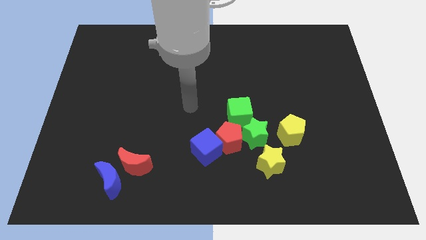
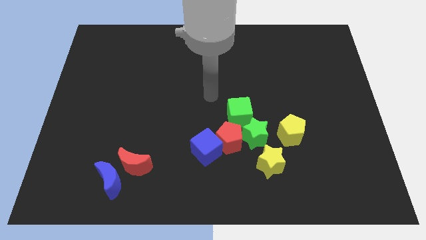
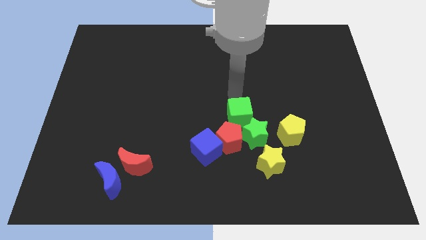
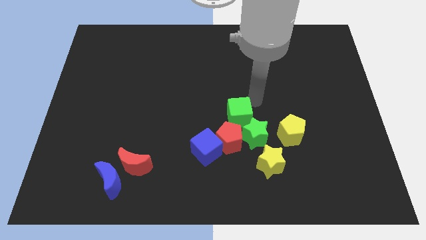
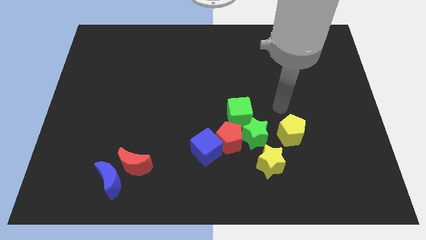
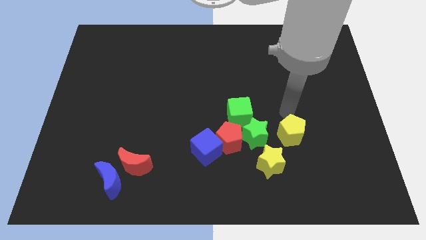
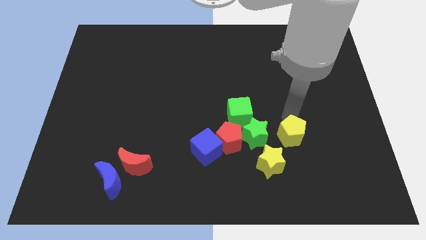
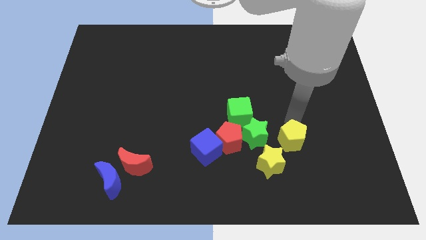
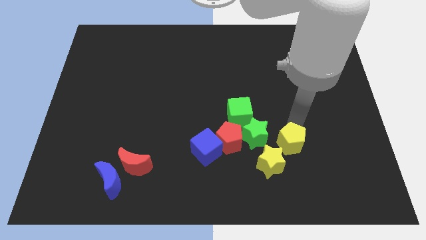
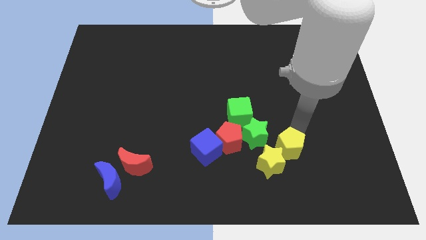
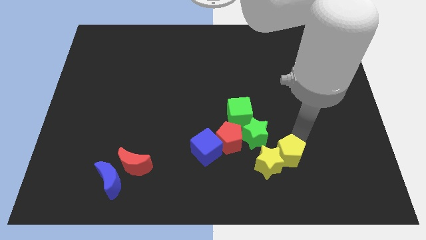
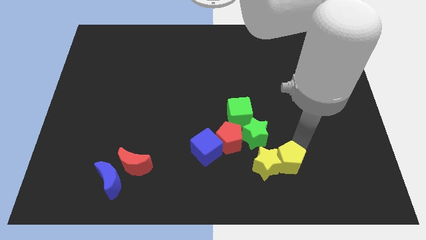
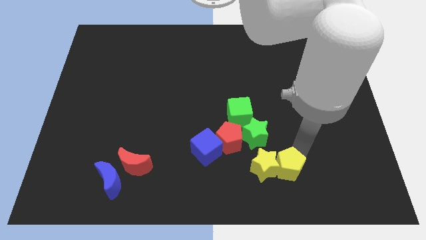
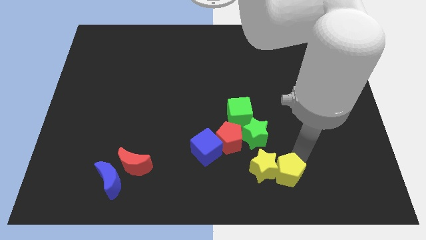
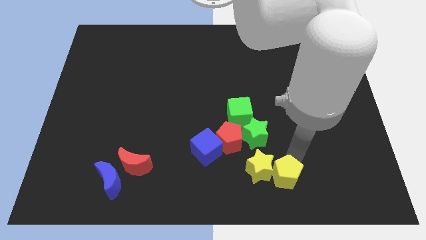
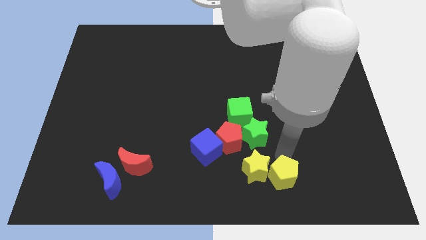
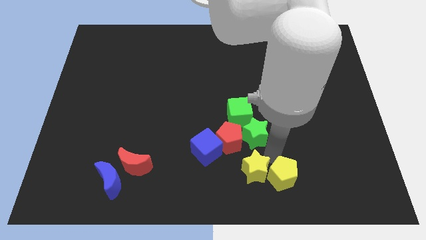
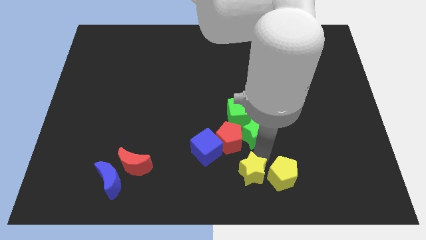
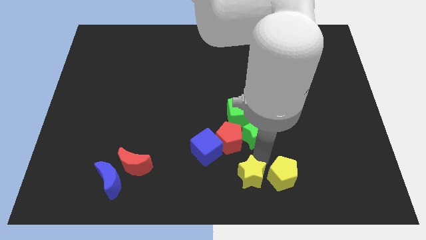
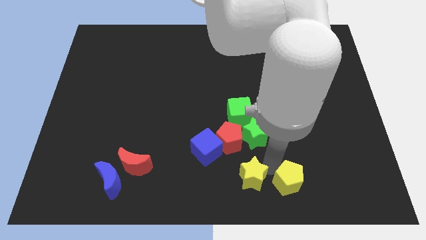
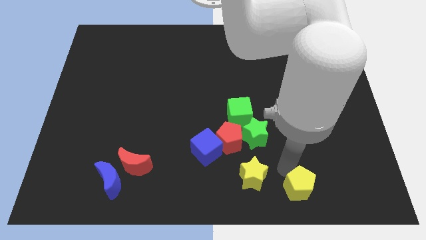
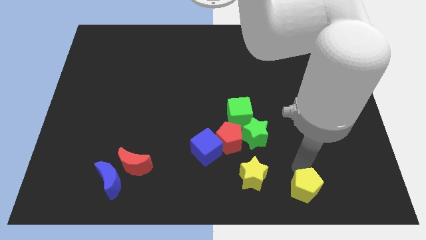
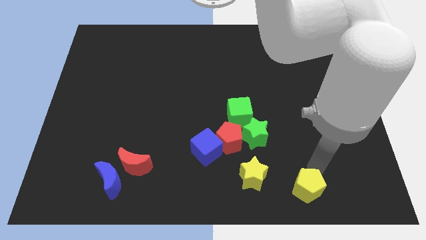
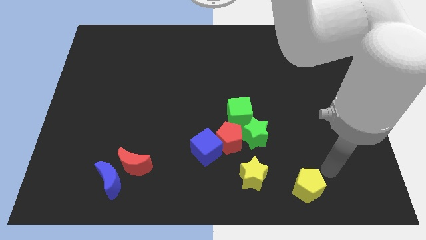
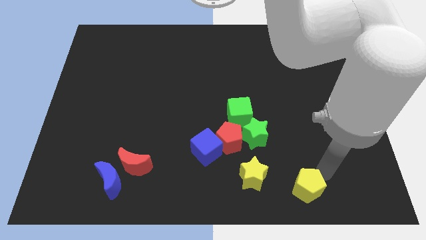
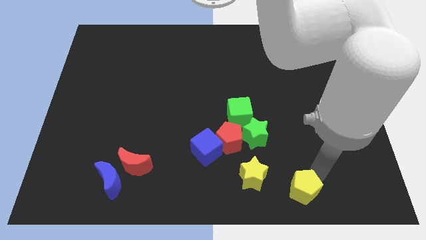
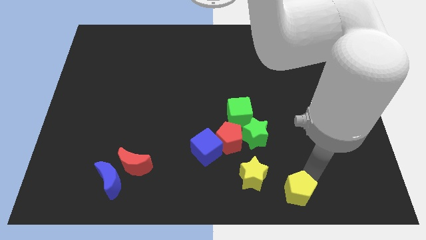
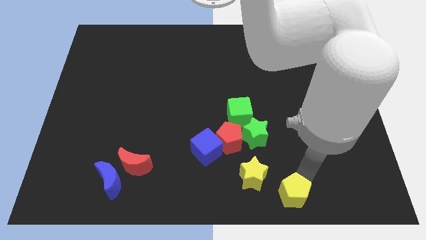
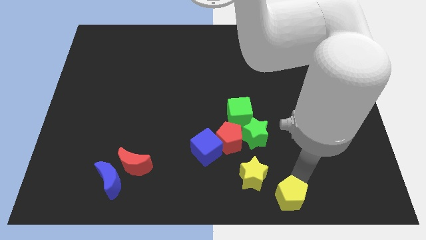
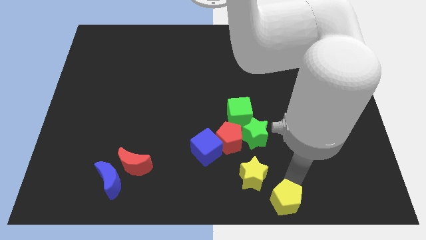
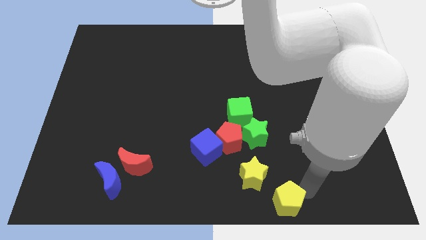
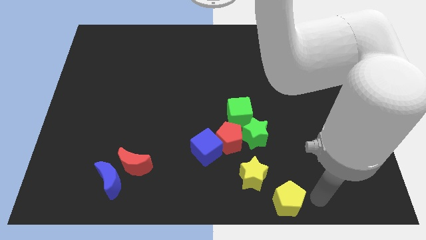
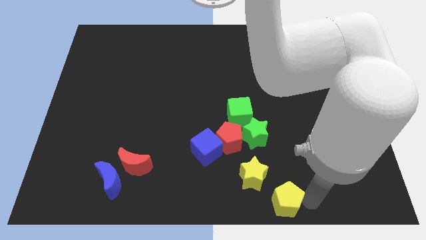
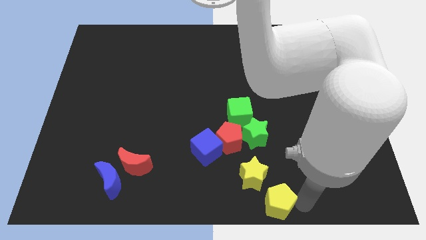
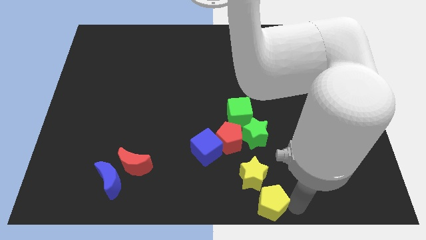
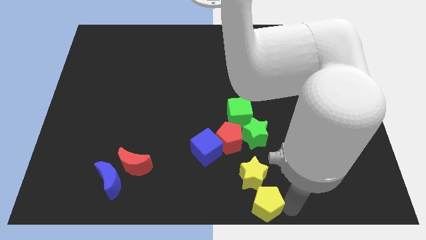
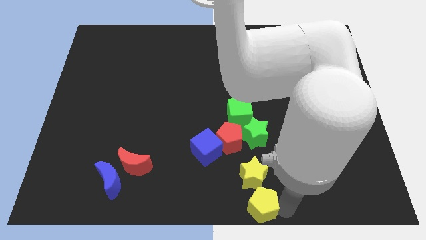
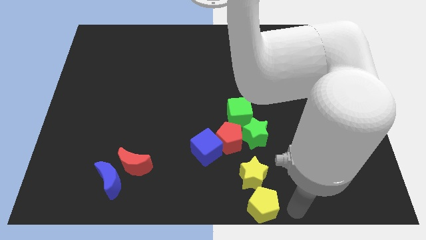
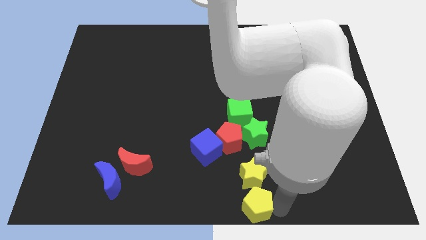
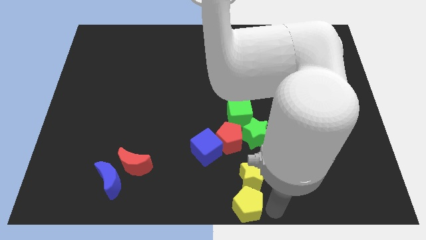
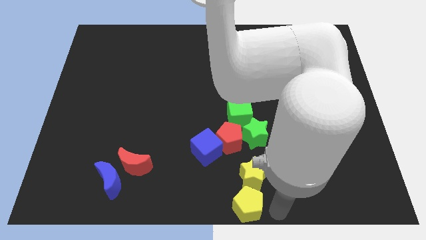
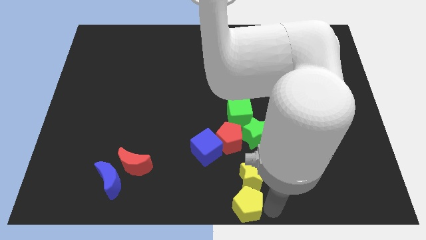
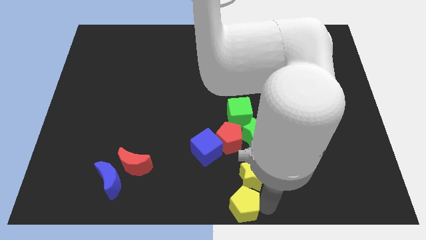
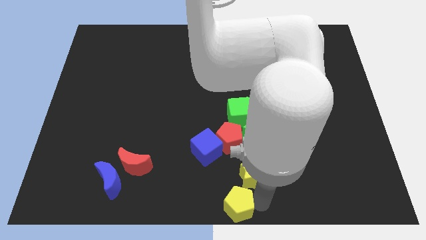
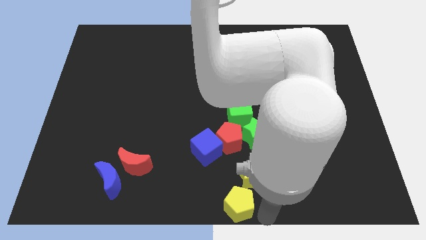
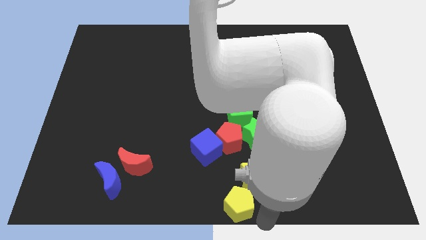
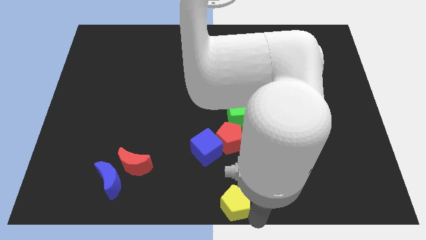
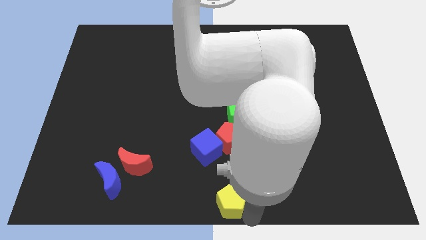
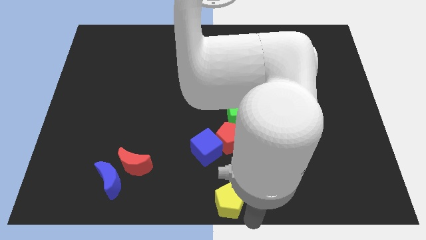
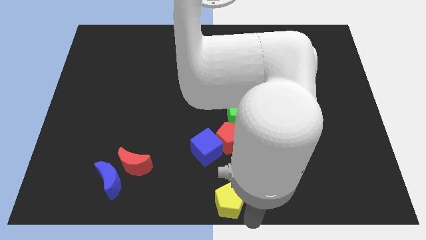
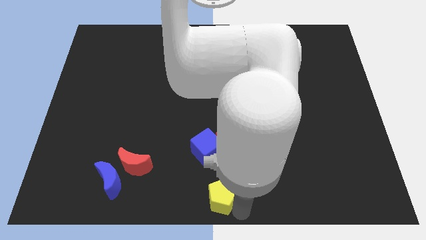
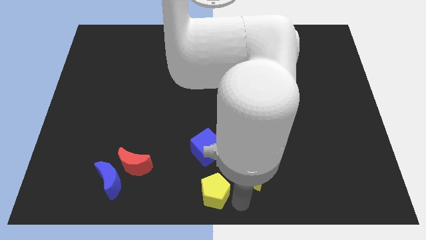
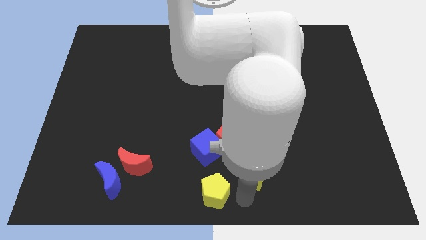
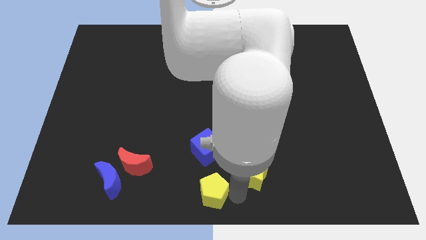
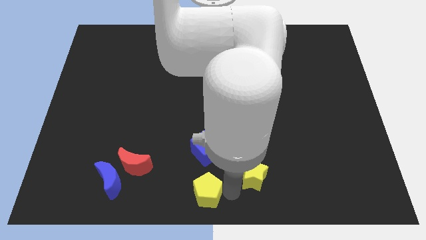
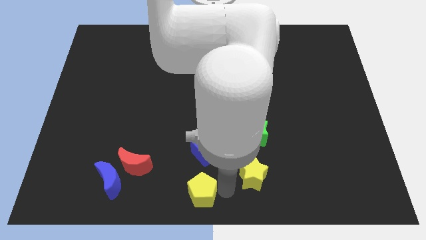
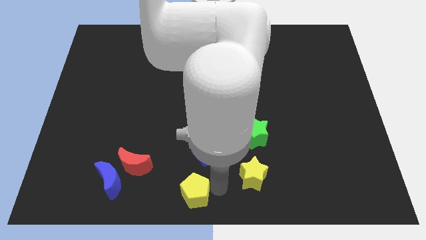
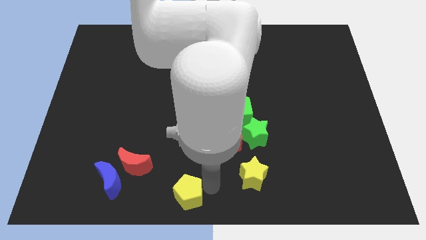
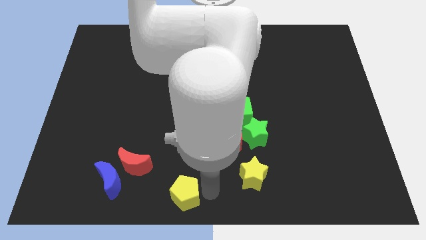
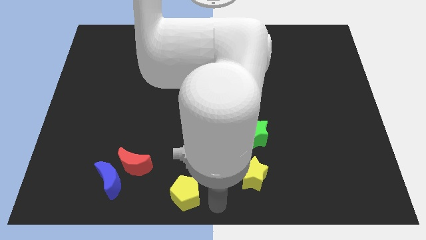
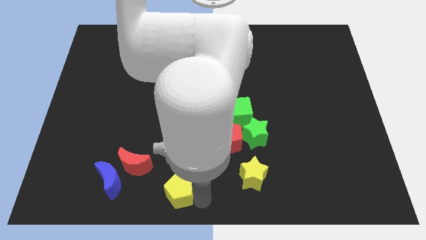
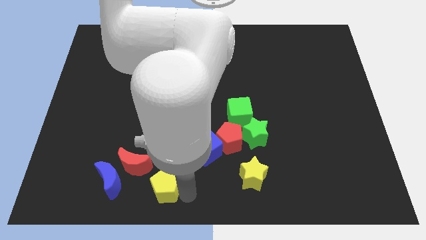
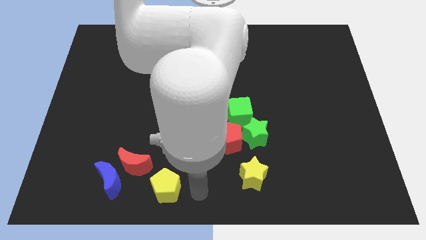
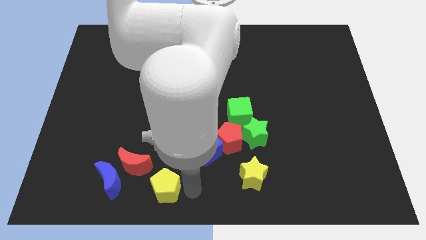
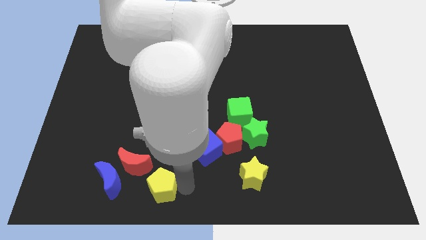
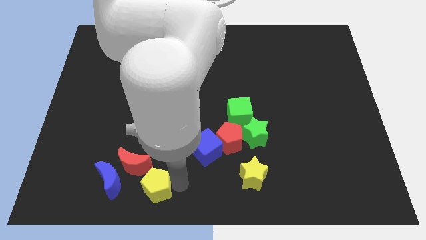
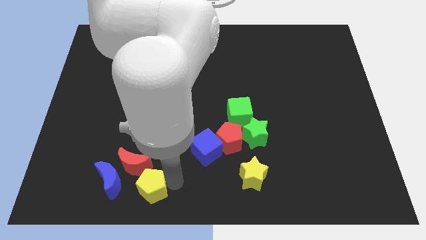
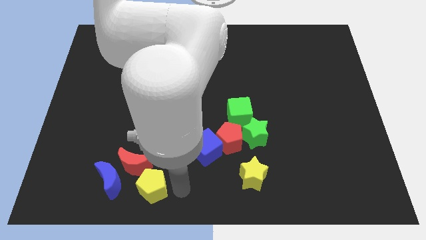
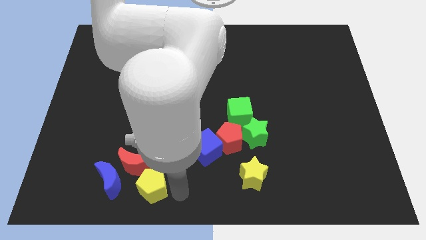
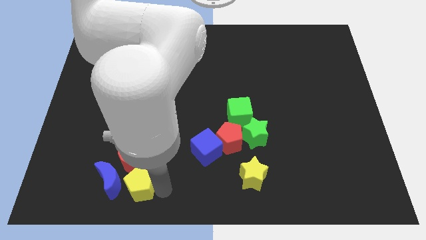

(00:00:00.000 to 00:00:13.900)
slide the yellow pentagon towards the blue moon

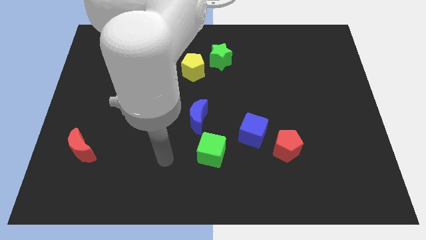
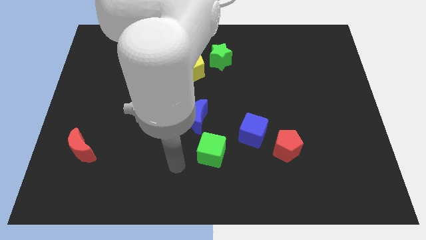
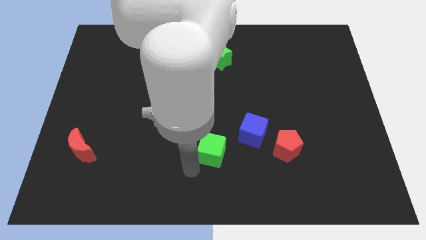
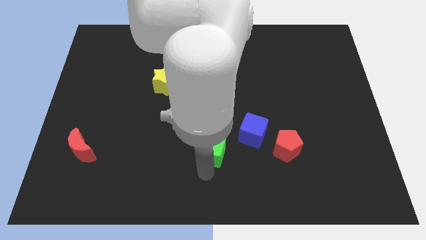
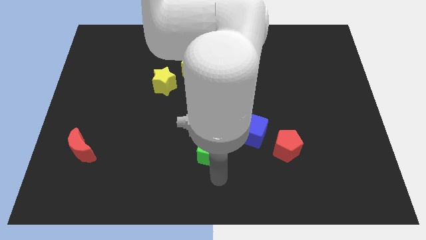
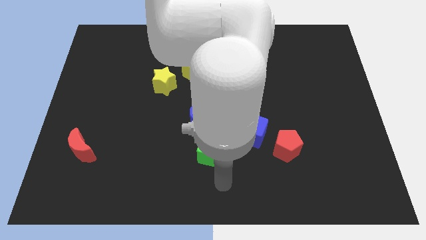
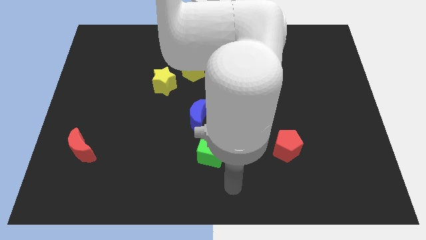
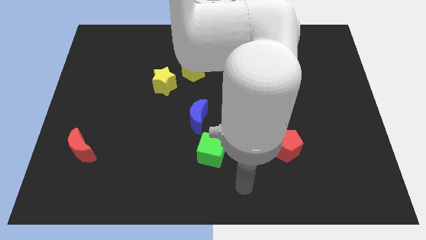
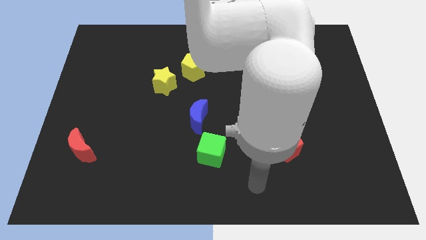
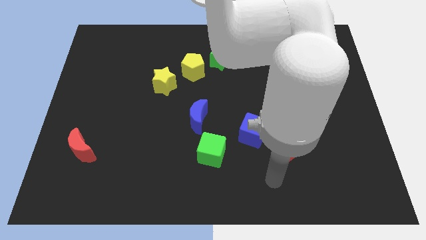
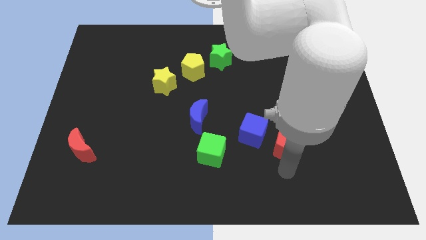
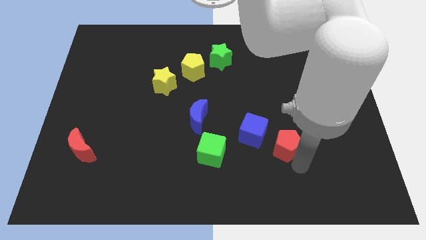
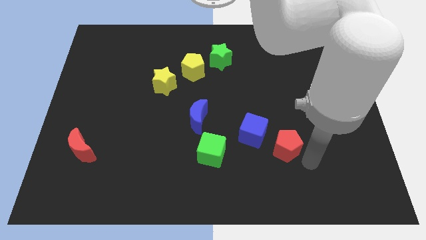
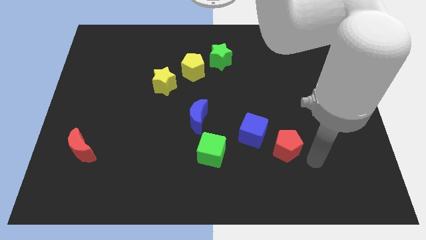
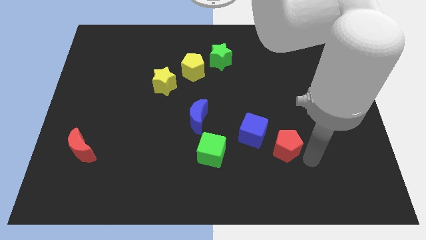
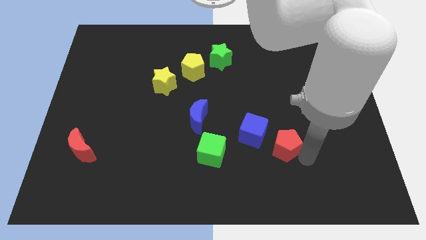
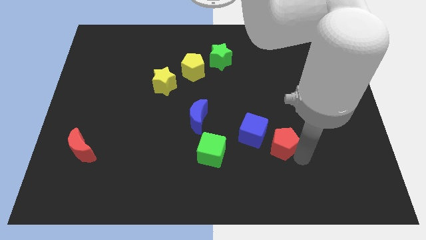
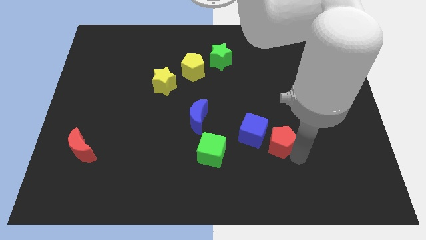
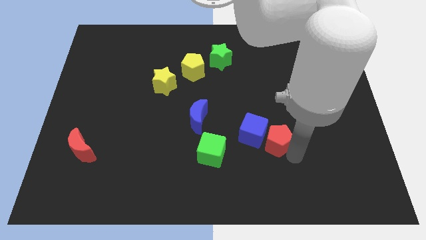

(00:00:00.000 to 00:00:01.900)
slide the red pentagon next to the blue cube
